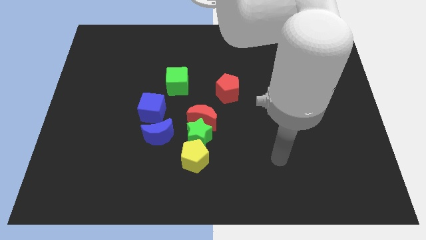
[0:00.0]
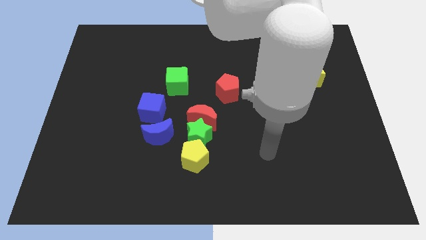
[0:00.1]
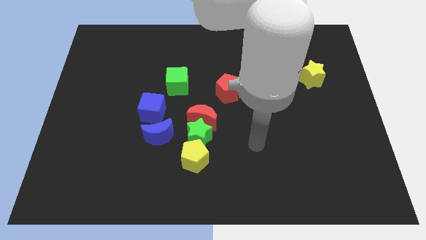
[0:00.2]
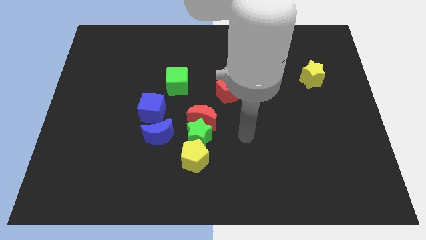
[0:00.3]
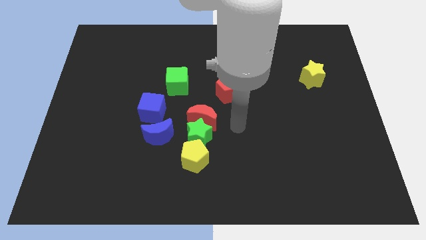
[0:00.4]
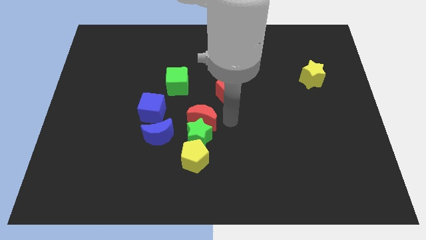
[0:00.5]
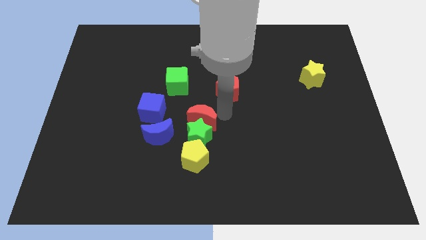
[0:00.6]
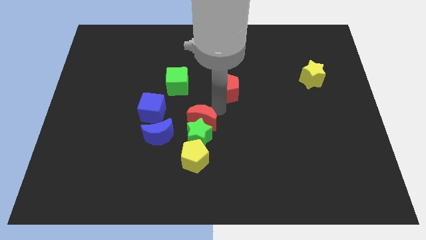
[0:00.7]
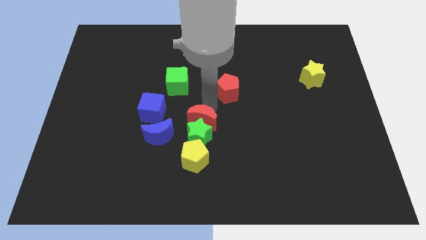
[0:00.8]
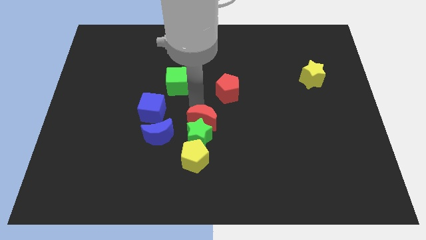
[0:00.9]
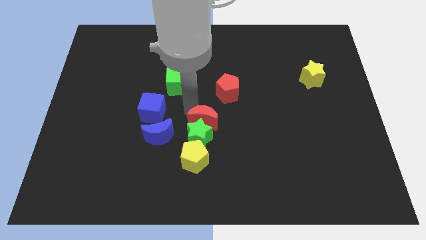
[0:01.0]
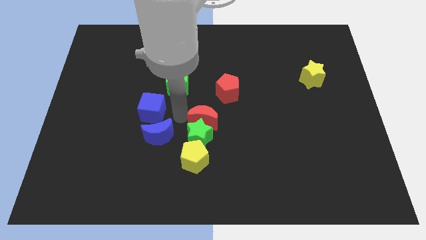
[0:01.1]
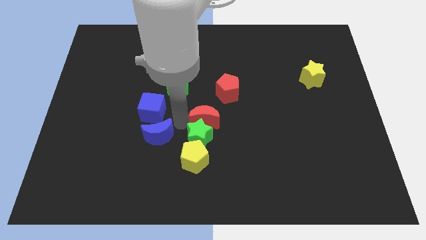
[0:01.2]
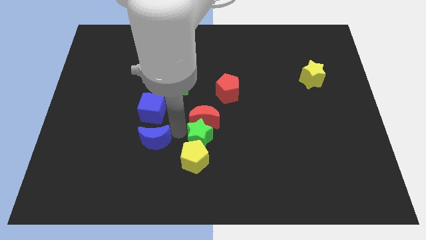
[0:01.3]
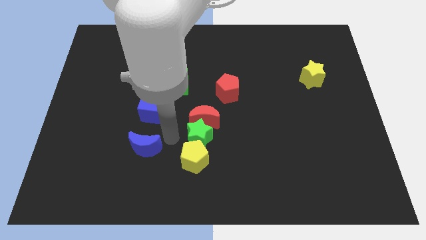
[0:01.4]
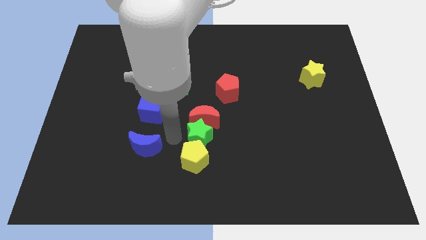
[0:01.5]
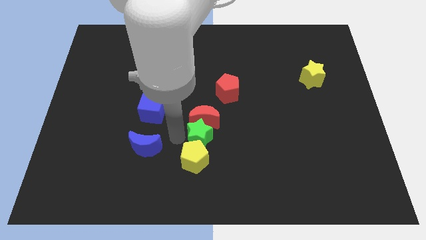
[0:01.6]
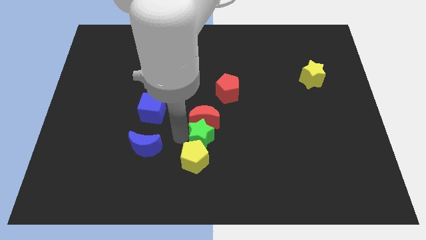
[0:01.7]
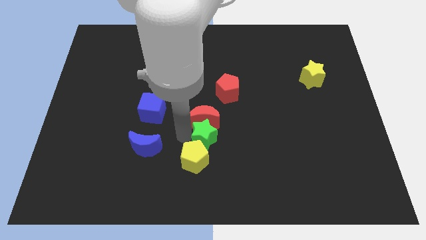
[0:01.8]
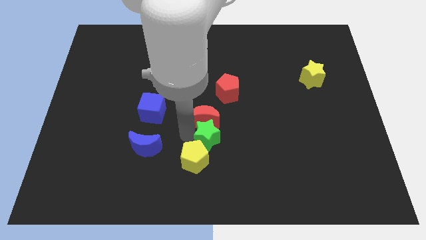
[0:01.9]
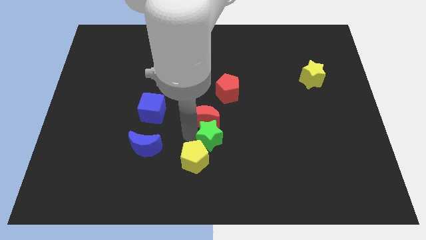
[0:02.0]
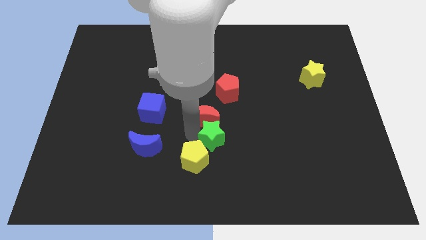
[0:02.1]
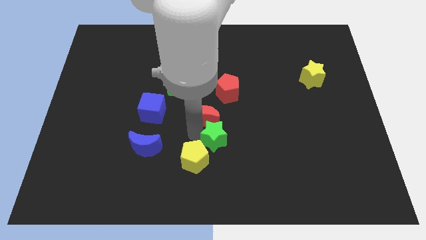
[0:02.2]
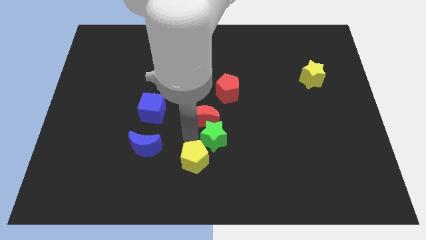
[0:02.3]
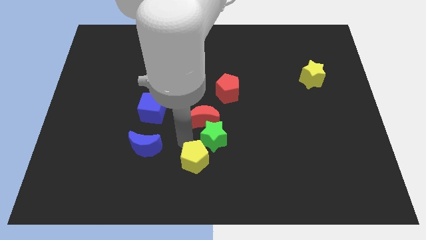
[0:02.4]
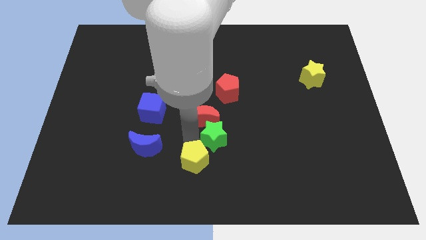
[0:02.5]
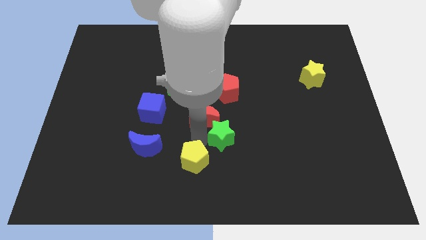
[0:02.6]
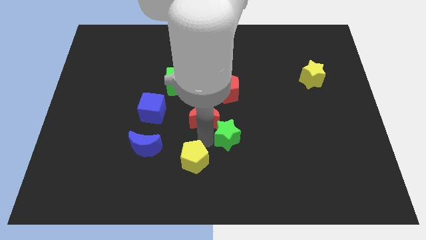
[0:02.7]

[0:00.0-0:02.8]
separate the green star from the group

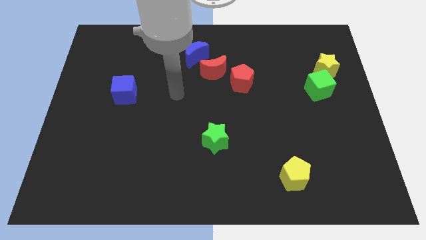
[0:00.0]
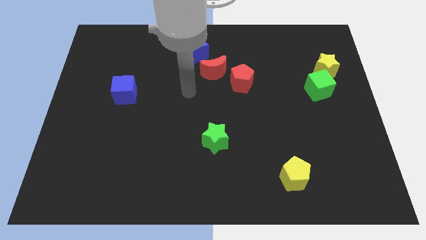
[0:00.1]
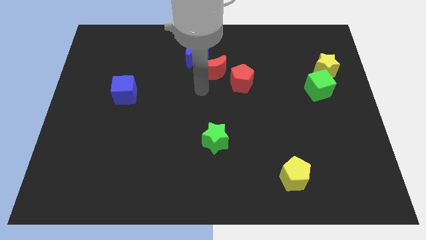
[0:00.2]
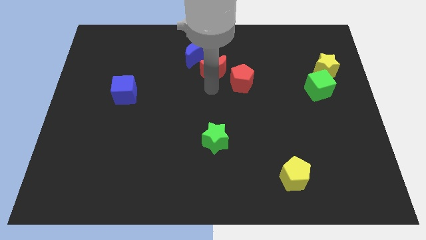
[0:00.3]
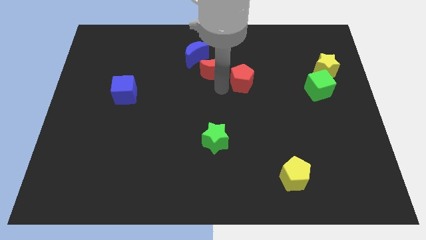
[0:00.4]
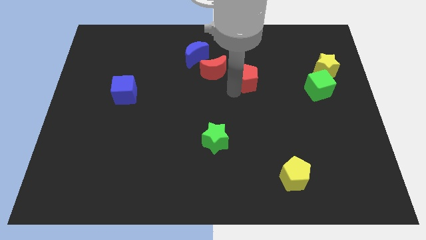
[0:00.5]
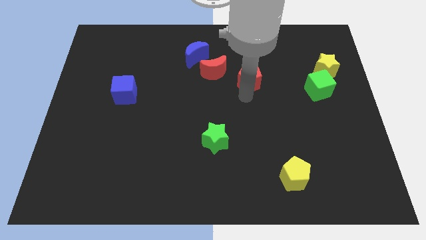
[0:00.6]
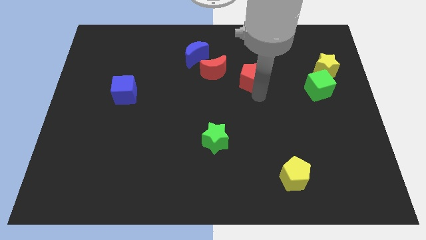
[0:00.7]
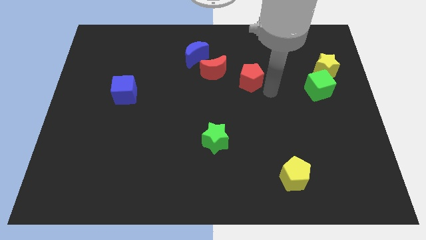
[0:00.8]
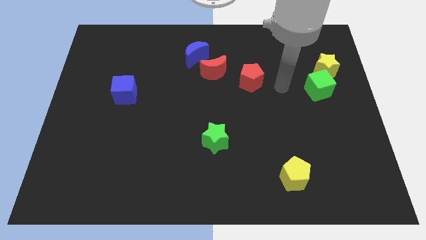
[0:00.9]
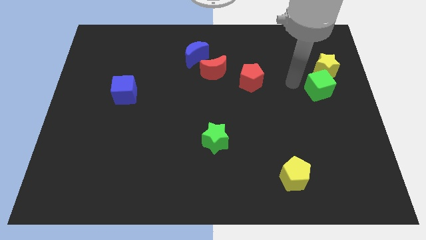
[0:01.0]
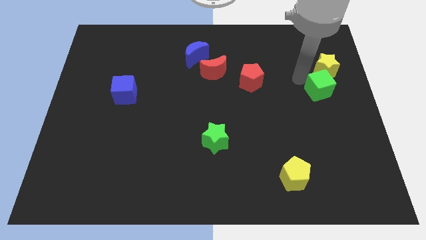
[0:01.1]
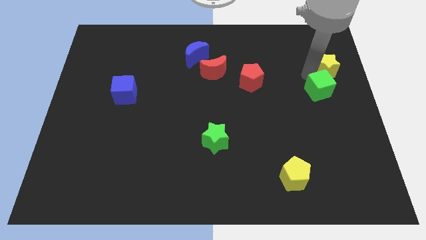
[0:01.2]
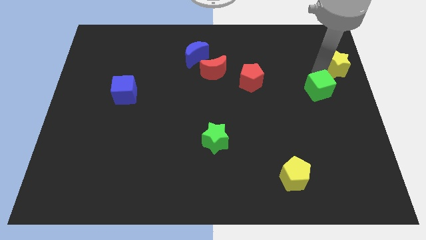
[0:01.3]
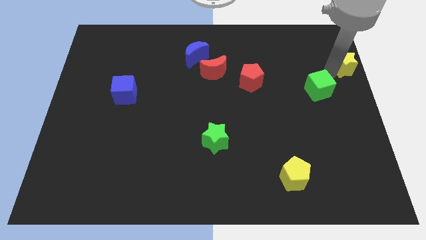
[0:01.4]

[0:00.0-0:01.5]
pull the green cube apart from the yellow star

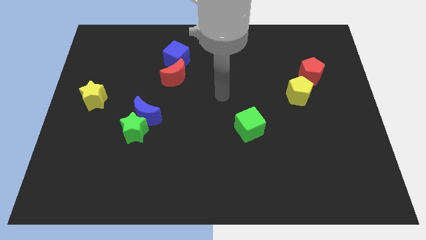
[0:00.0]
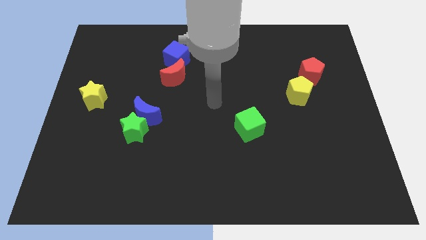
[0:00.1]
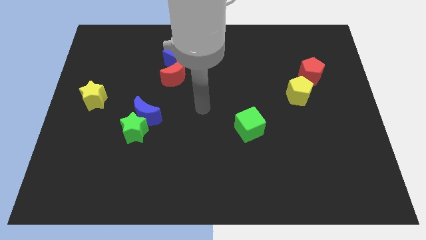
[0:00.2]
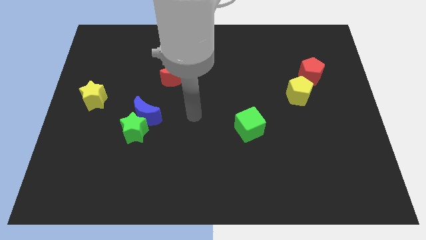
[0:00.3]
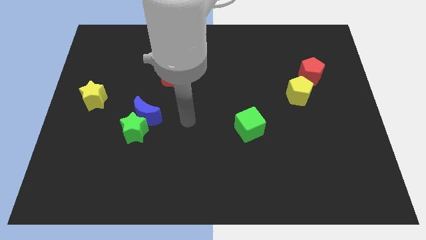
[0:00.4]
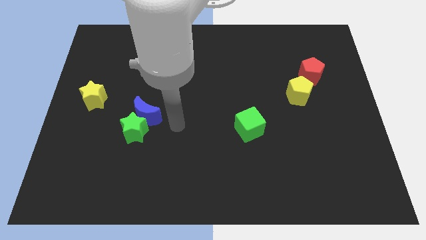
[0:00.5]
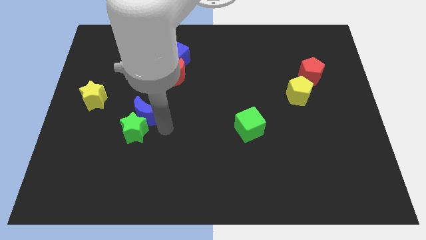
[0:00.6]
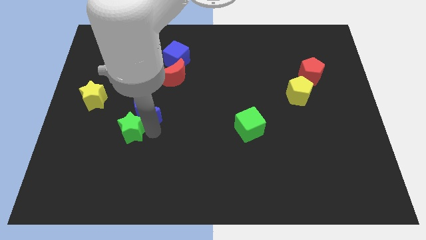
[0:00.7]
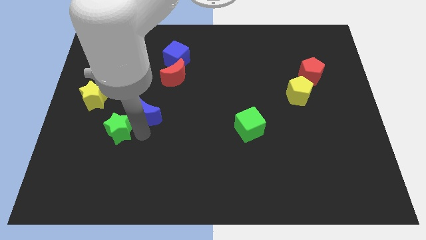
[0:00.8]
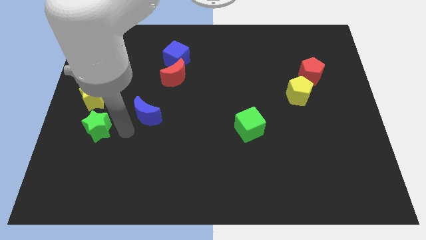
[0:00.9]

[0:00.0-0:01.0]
separate the blue moon from the green star

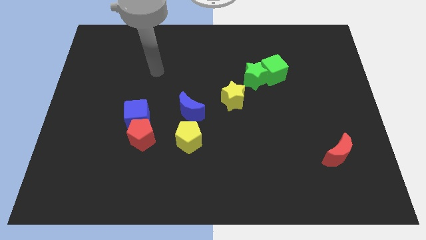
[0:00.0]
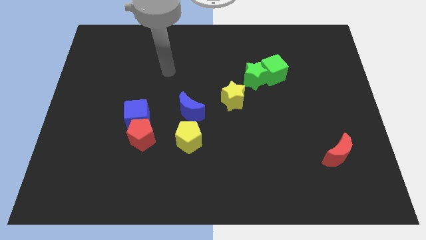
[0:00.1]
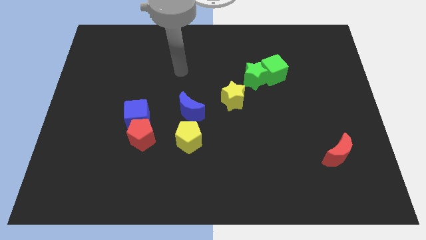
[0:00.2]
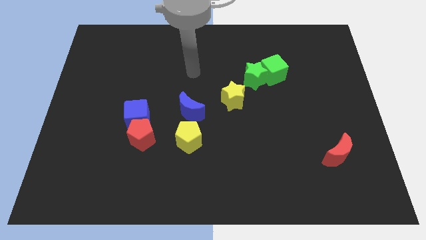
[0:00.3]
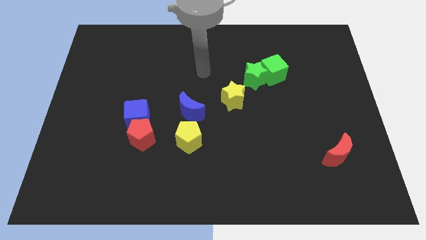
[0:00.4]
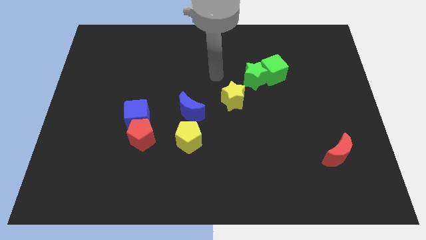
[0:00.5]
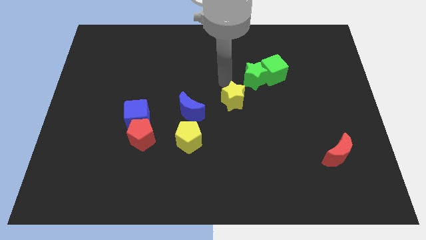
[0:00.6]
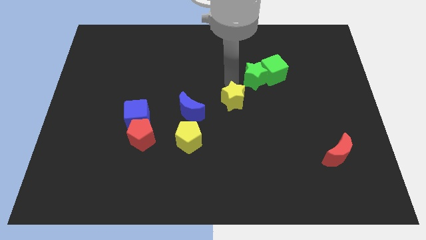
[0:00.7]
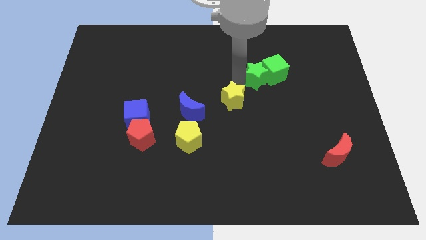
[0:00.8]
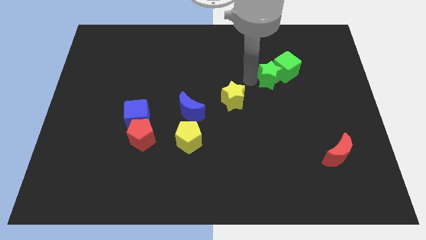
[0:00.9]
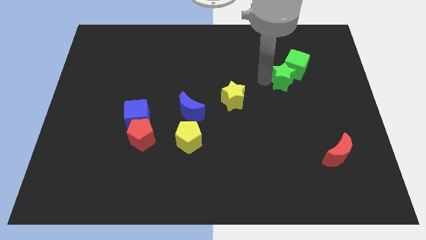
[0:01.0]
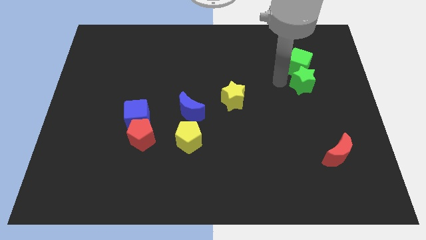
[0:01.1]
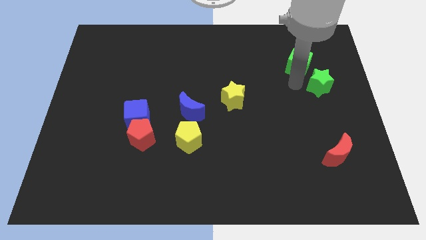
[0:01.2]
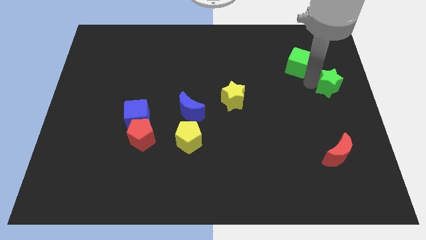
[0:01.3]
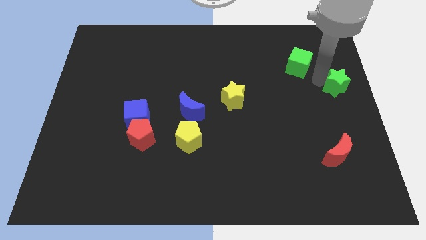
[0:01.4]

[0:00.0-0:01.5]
pull the green cube apart from the green star

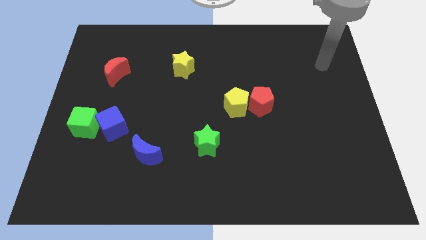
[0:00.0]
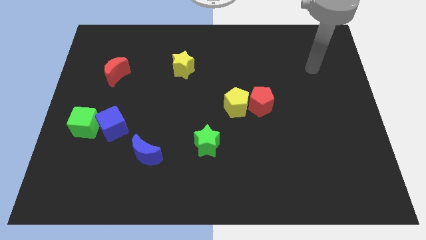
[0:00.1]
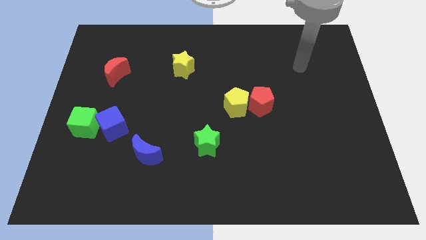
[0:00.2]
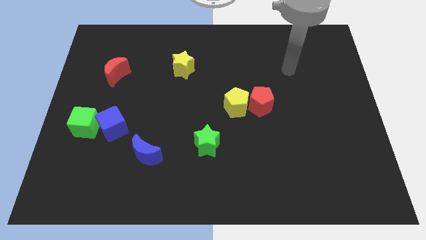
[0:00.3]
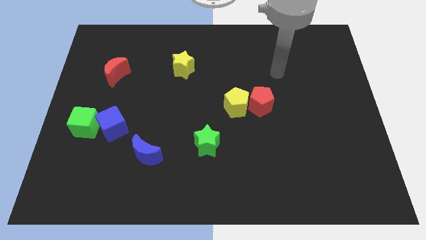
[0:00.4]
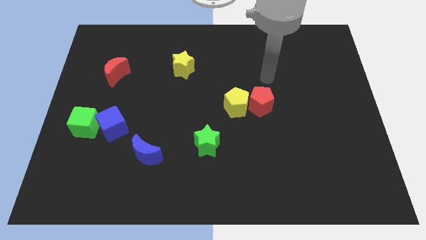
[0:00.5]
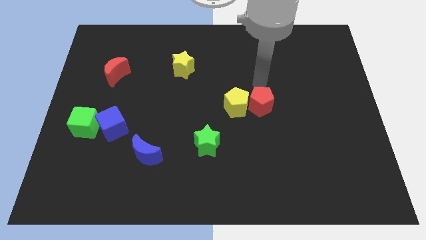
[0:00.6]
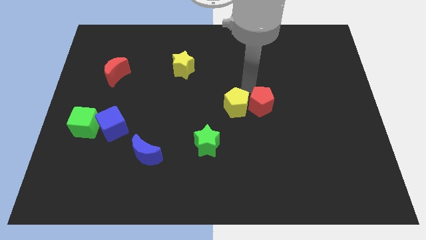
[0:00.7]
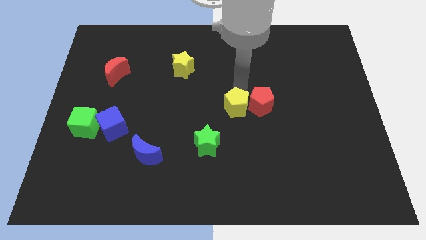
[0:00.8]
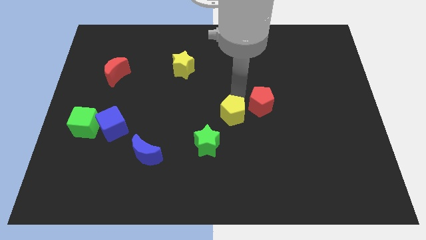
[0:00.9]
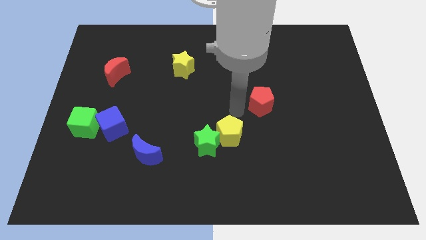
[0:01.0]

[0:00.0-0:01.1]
pull the red pentagon apart from the yellow pentagon

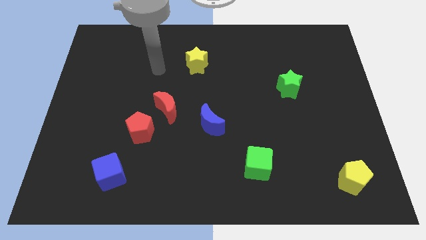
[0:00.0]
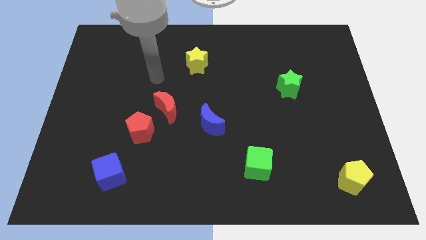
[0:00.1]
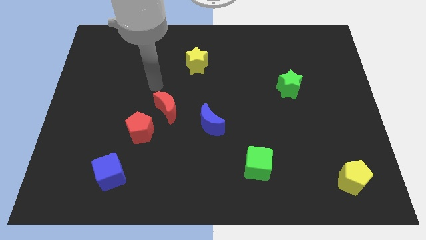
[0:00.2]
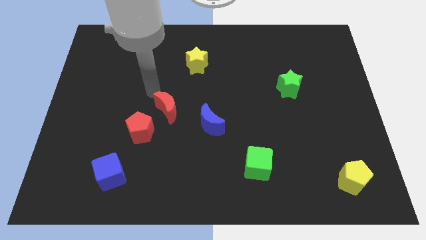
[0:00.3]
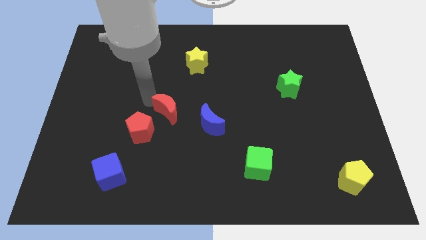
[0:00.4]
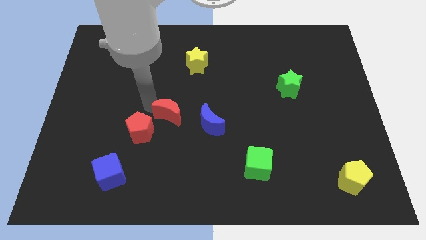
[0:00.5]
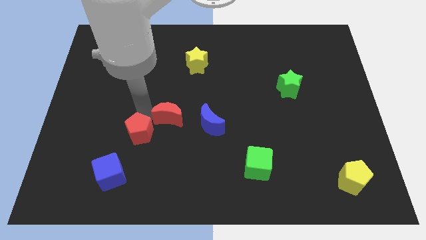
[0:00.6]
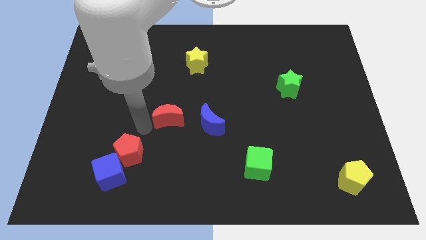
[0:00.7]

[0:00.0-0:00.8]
pull the red moon apart from the red pentagon

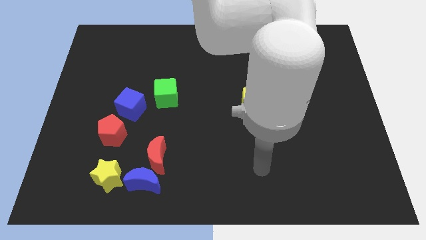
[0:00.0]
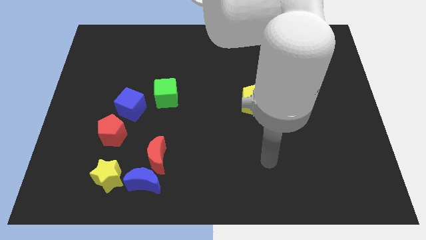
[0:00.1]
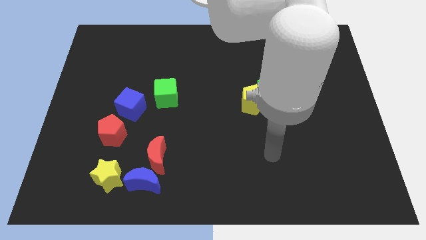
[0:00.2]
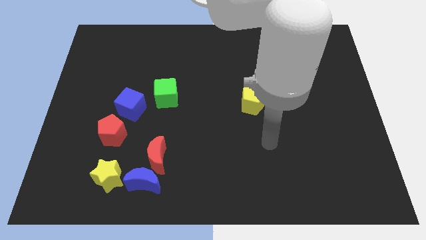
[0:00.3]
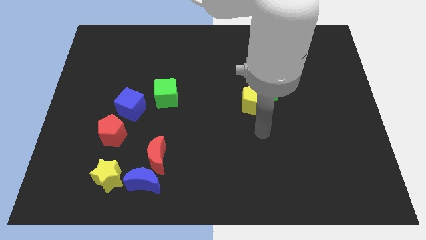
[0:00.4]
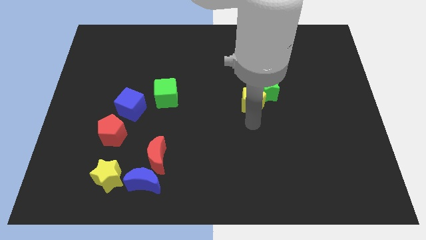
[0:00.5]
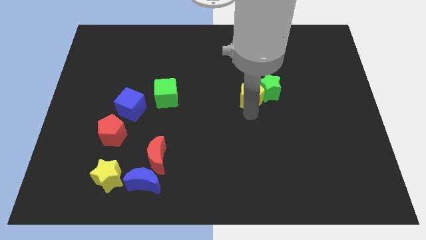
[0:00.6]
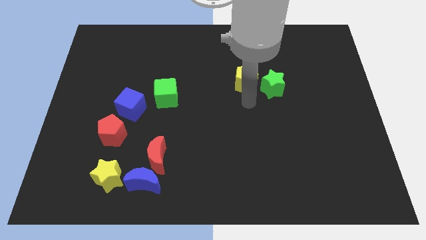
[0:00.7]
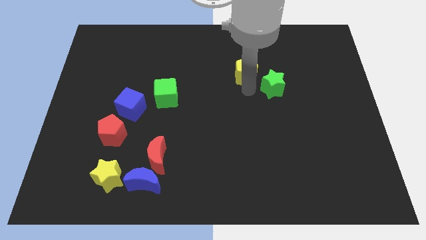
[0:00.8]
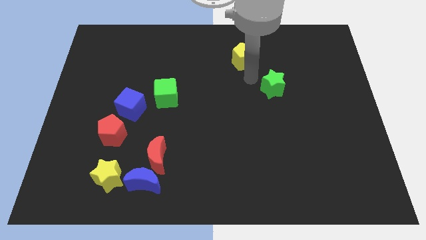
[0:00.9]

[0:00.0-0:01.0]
move the green star away from the yellow pentagon
